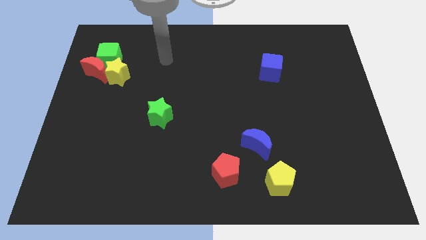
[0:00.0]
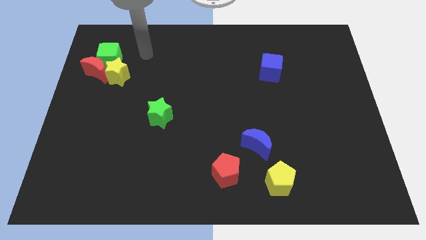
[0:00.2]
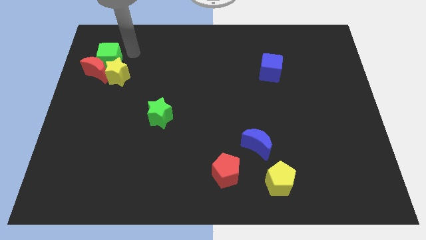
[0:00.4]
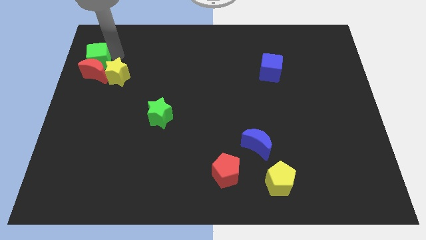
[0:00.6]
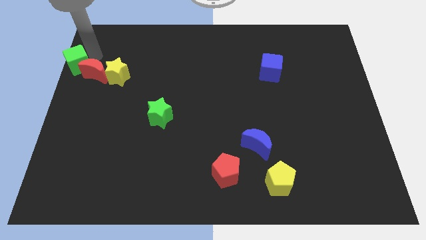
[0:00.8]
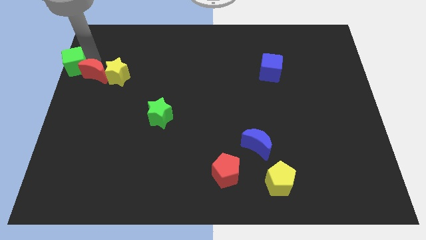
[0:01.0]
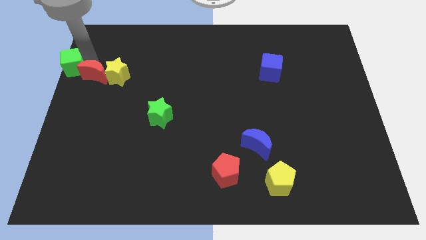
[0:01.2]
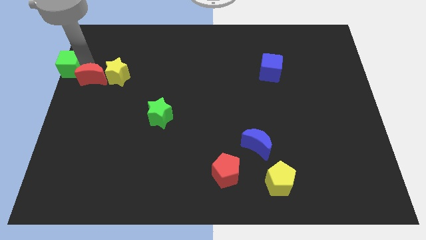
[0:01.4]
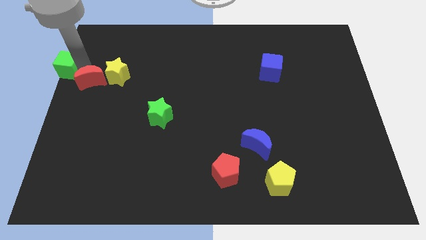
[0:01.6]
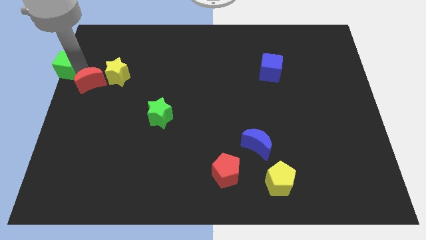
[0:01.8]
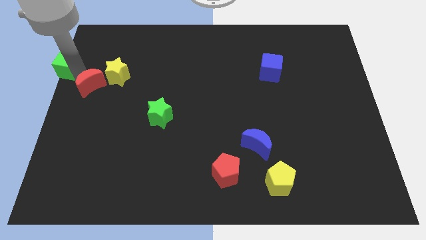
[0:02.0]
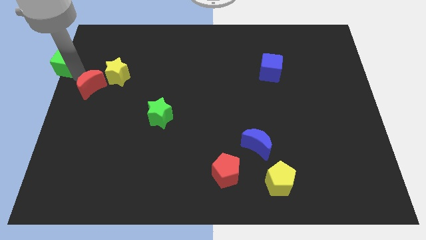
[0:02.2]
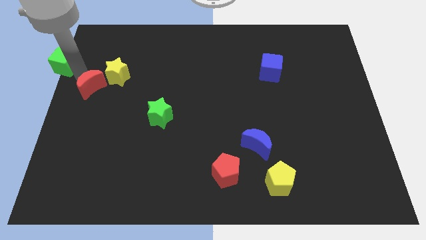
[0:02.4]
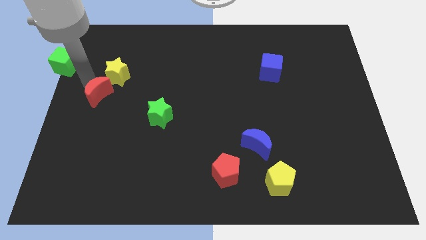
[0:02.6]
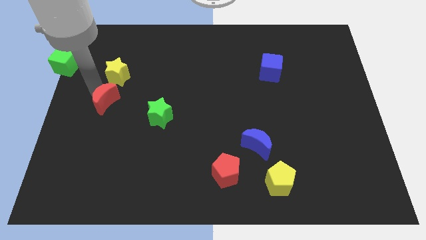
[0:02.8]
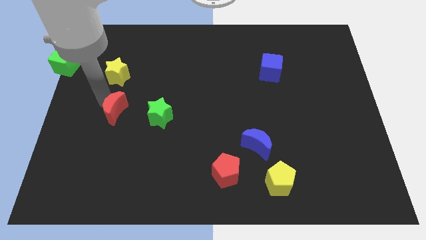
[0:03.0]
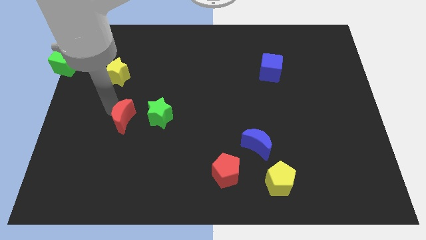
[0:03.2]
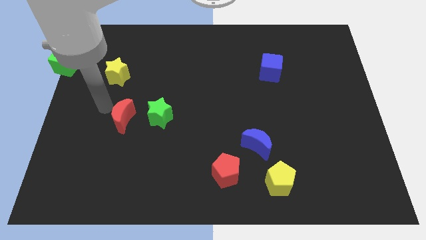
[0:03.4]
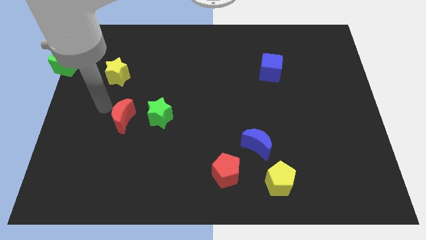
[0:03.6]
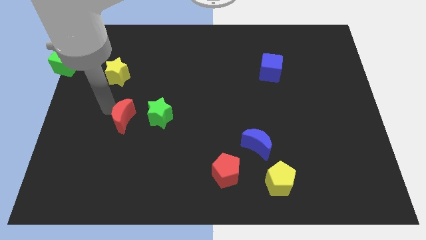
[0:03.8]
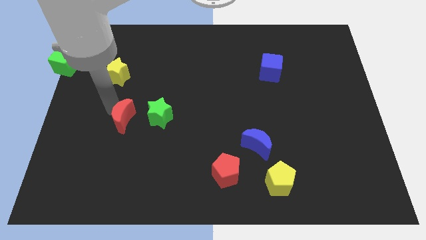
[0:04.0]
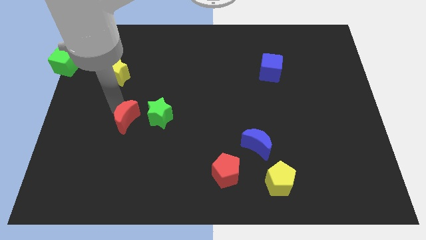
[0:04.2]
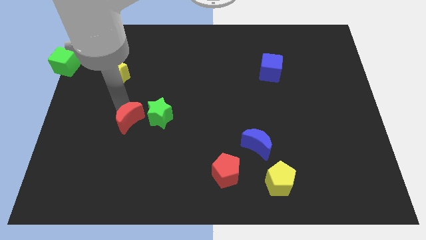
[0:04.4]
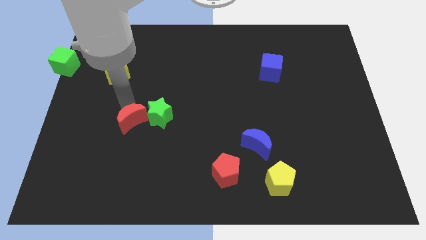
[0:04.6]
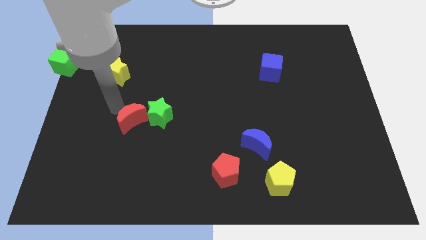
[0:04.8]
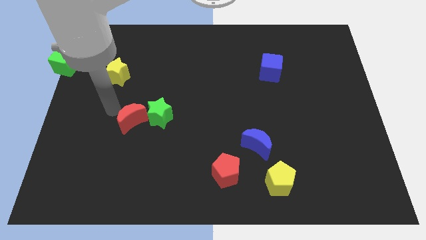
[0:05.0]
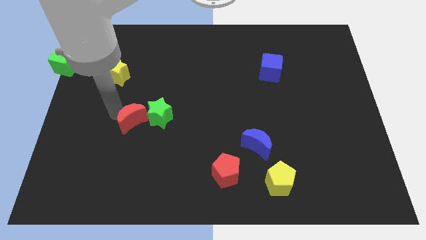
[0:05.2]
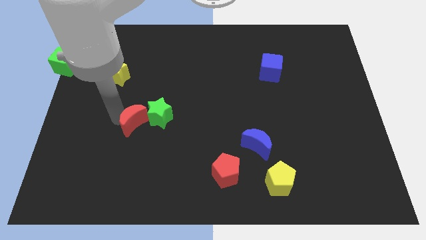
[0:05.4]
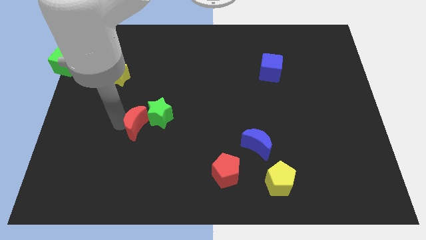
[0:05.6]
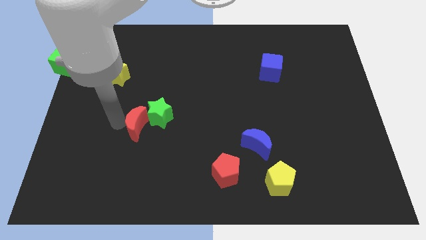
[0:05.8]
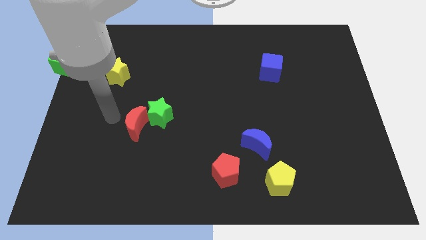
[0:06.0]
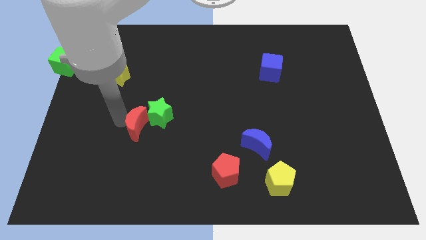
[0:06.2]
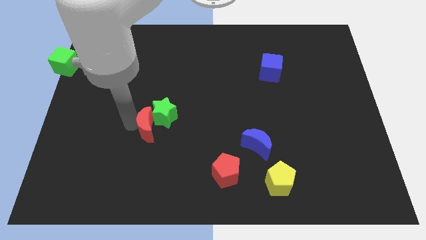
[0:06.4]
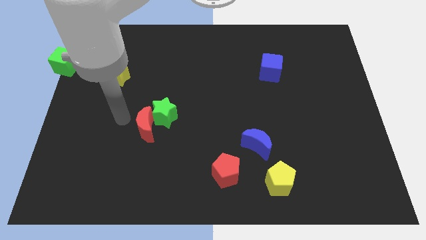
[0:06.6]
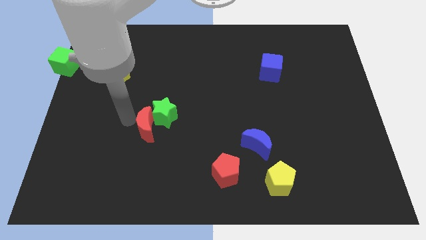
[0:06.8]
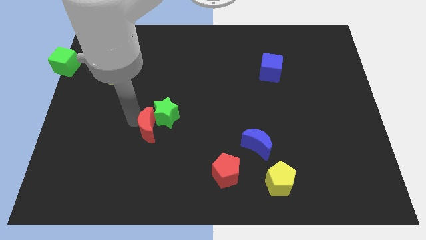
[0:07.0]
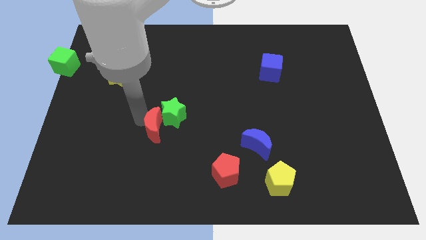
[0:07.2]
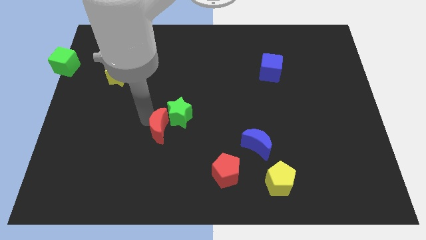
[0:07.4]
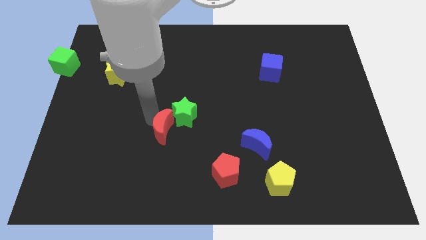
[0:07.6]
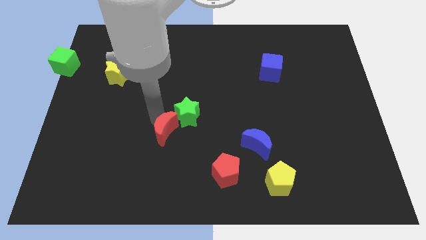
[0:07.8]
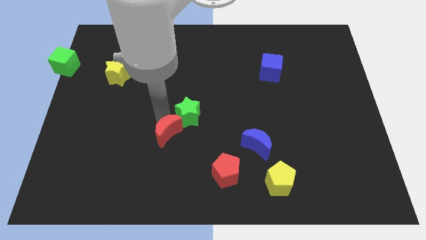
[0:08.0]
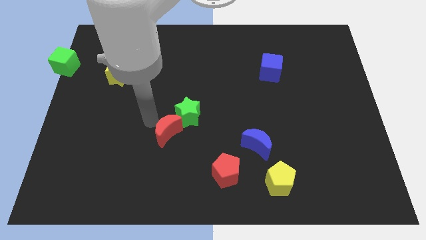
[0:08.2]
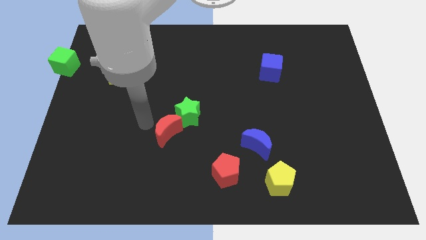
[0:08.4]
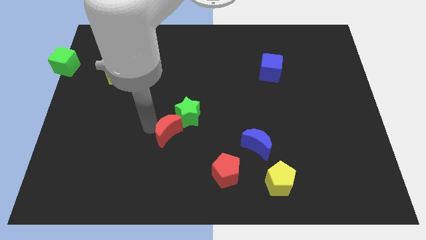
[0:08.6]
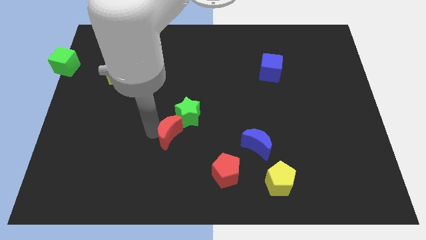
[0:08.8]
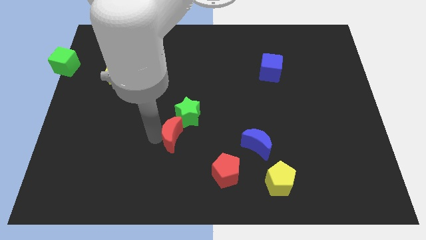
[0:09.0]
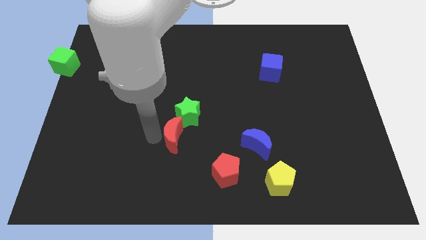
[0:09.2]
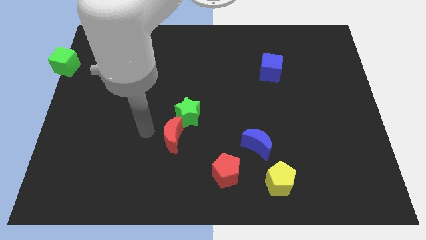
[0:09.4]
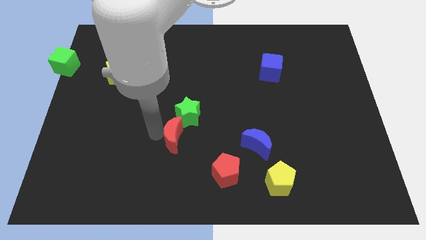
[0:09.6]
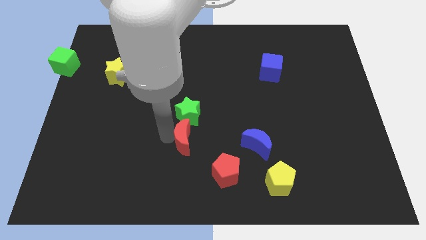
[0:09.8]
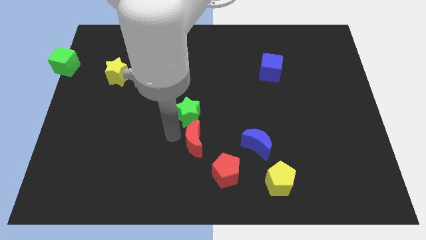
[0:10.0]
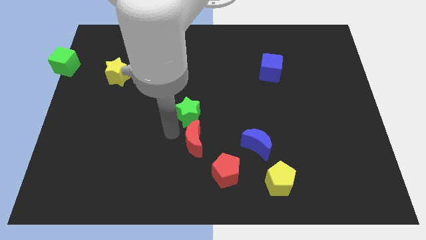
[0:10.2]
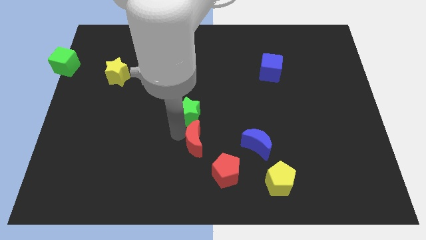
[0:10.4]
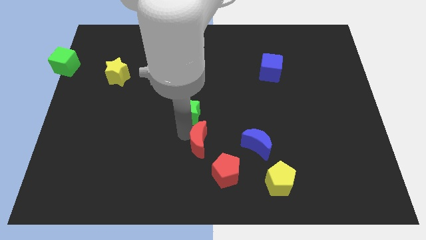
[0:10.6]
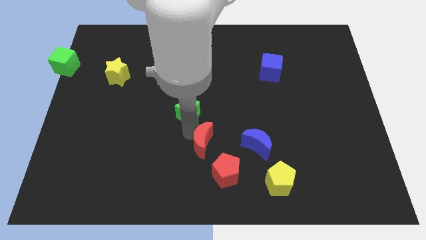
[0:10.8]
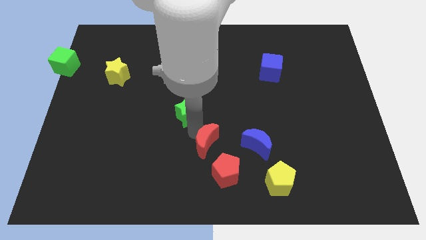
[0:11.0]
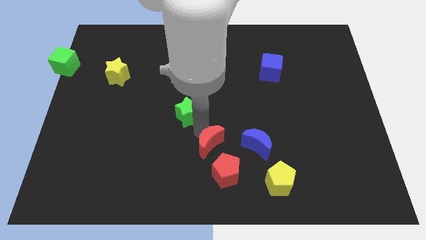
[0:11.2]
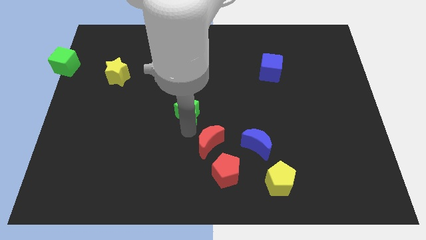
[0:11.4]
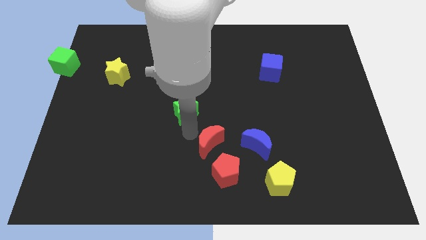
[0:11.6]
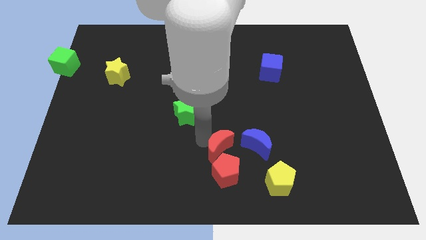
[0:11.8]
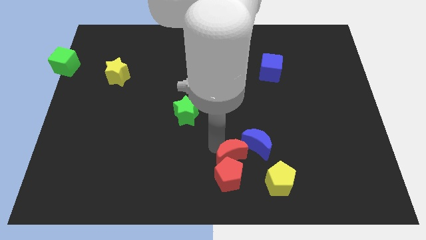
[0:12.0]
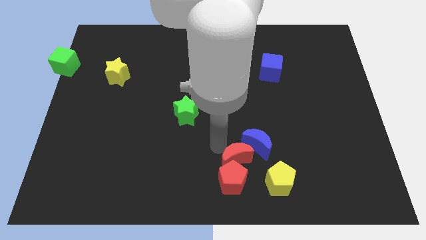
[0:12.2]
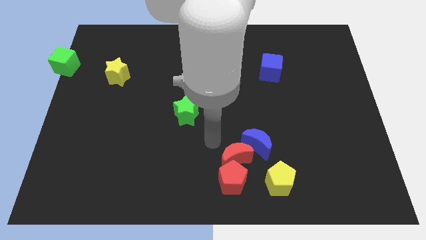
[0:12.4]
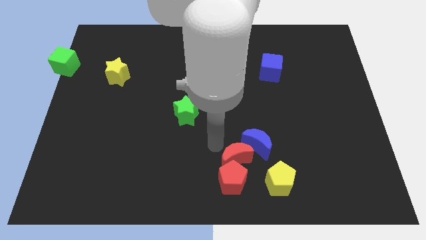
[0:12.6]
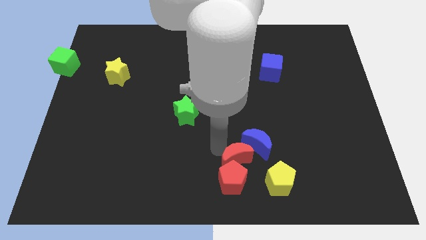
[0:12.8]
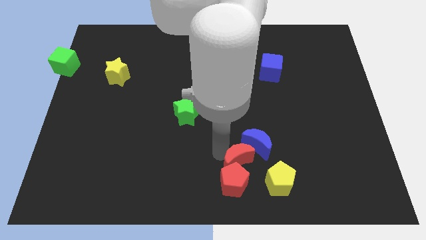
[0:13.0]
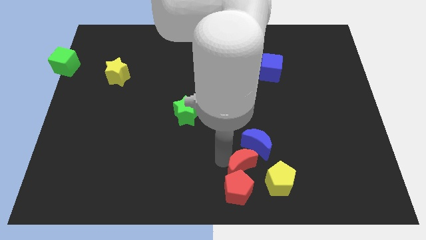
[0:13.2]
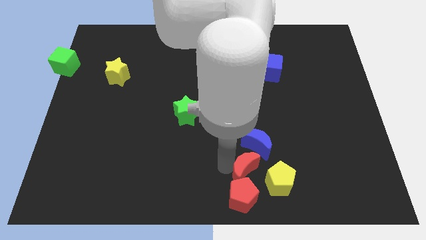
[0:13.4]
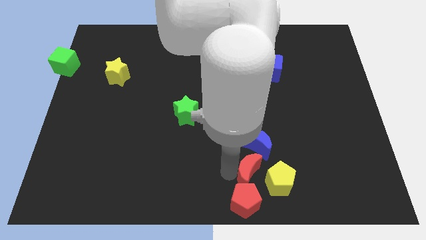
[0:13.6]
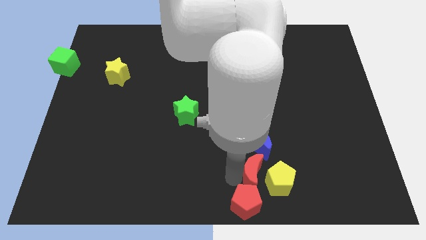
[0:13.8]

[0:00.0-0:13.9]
put the red moon to the yellow pentagon

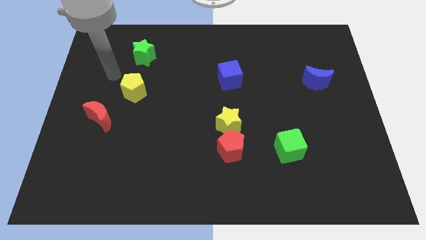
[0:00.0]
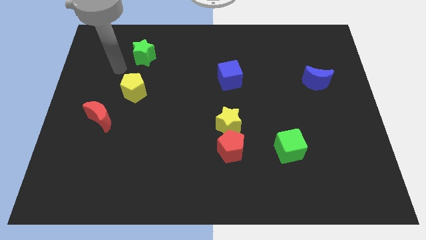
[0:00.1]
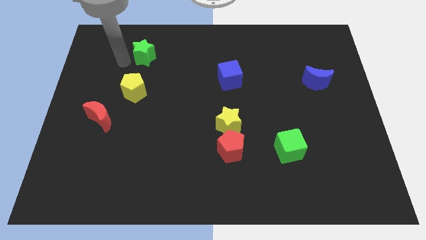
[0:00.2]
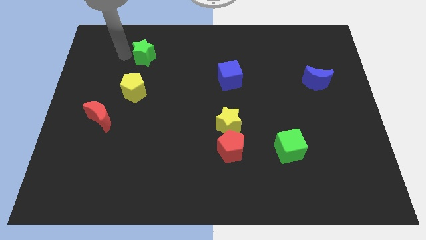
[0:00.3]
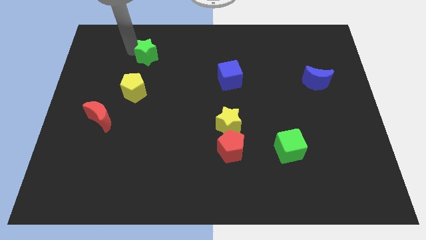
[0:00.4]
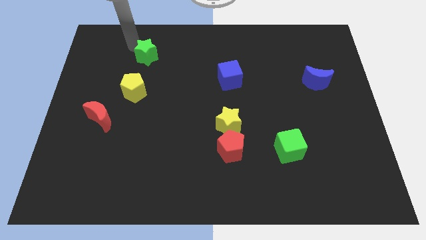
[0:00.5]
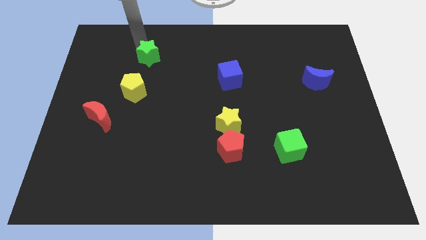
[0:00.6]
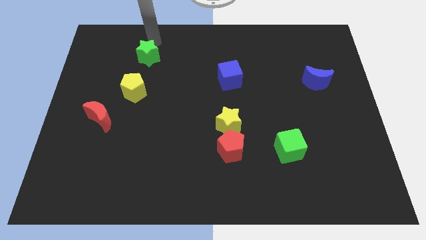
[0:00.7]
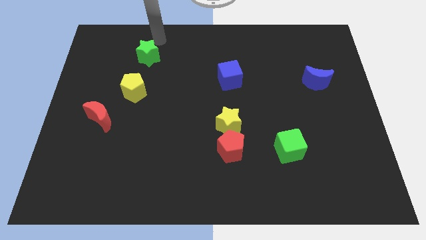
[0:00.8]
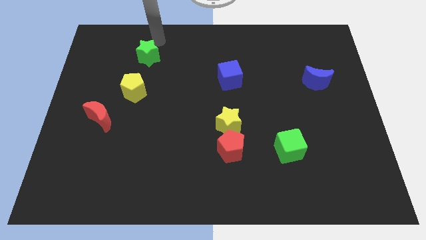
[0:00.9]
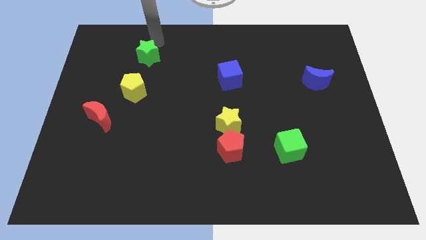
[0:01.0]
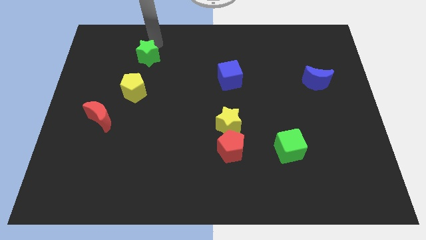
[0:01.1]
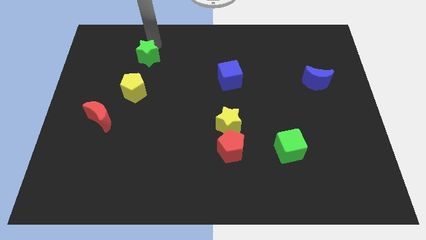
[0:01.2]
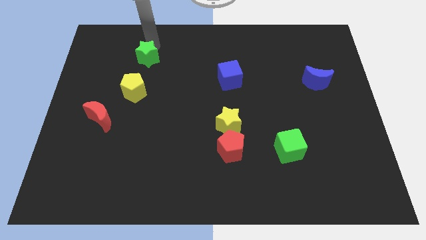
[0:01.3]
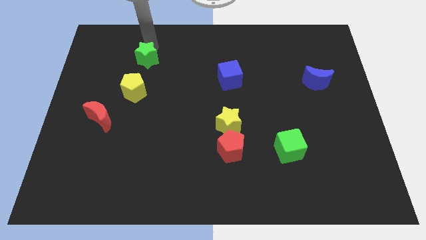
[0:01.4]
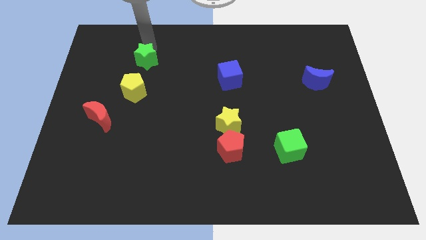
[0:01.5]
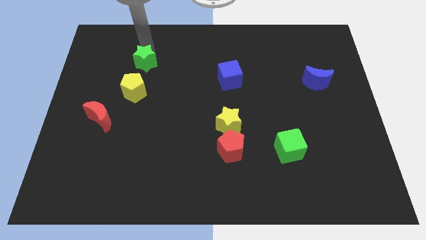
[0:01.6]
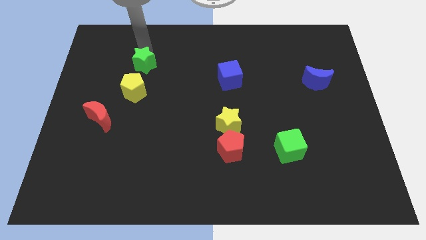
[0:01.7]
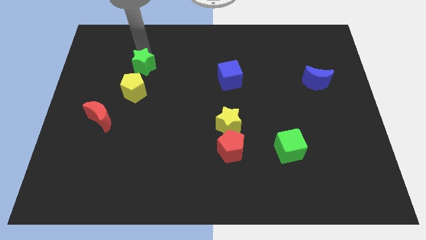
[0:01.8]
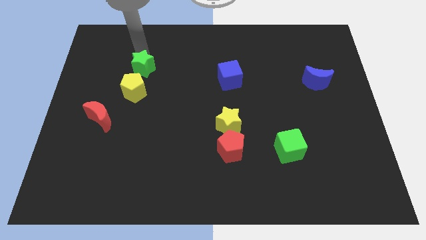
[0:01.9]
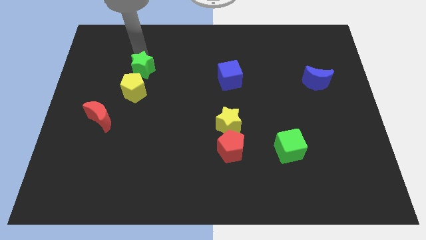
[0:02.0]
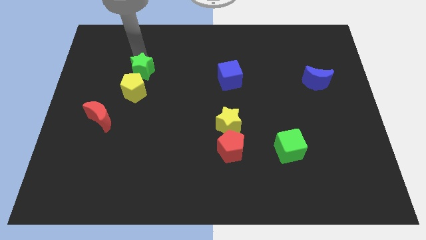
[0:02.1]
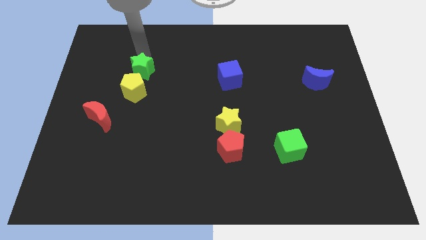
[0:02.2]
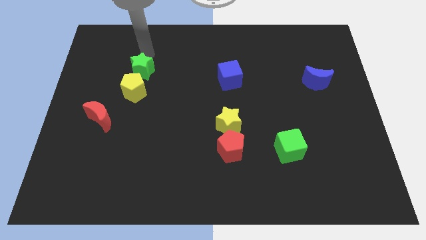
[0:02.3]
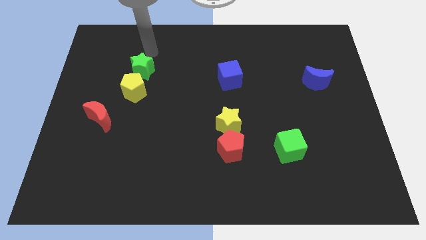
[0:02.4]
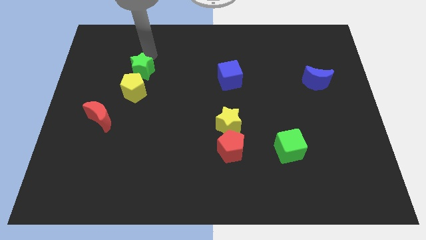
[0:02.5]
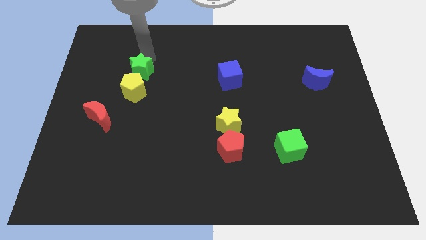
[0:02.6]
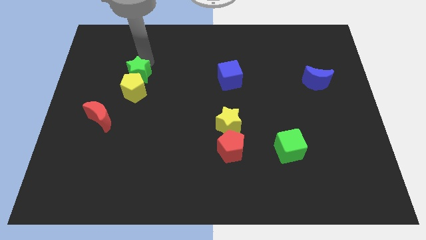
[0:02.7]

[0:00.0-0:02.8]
put the green star close to the yellow pentagon
